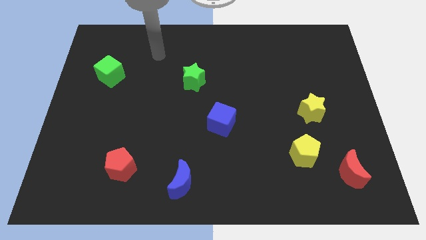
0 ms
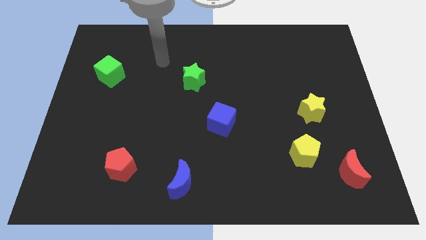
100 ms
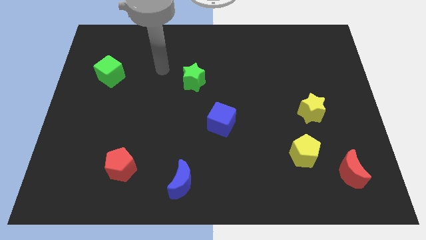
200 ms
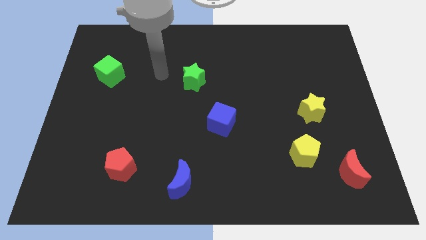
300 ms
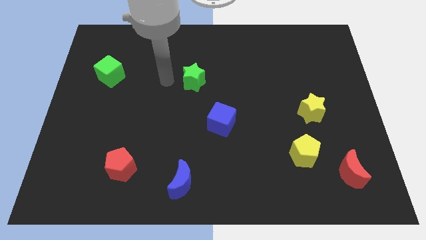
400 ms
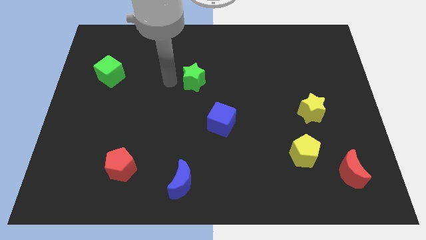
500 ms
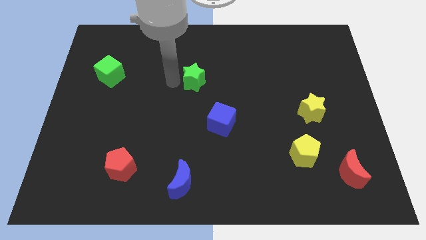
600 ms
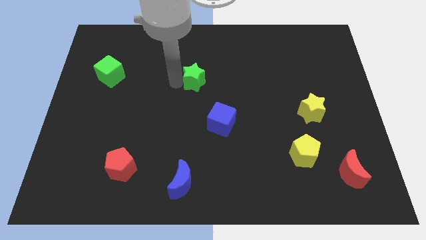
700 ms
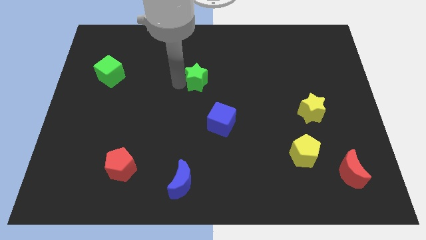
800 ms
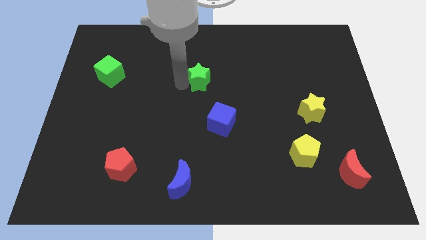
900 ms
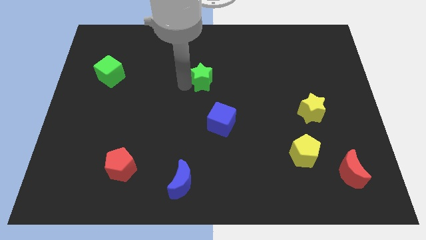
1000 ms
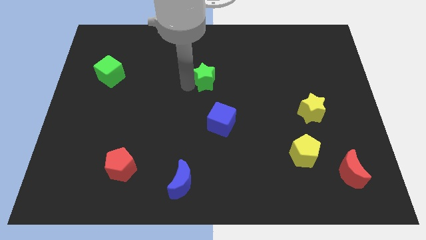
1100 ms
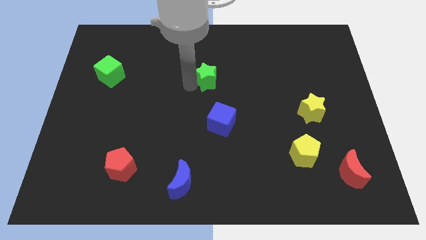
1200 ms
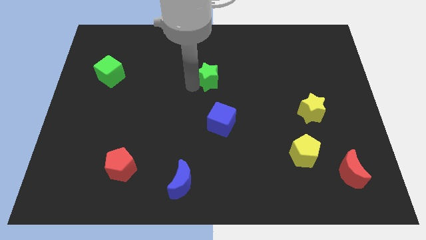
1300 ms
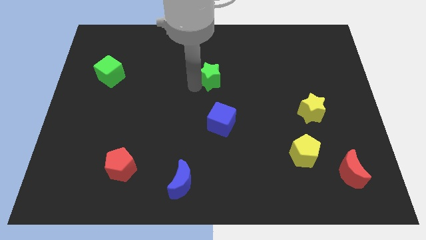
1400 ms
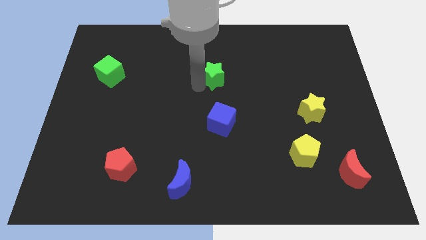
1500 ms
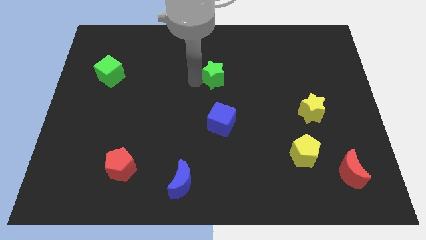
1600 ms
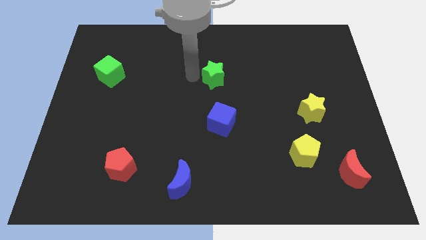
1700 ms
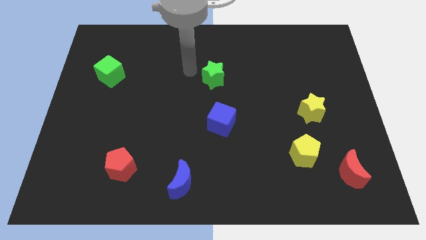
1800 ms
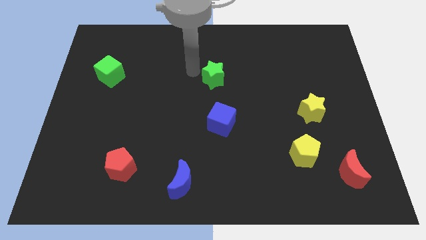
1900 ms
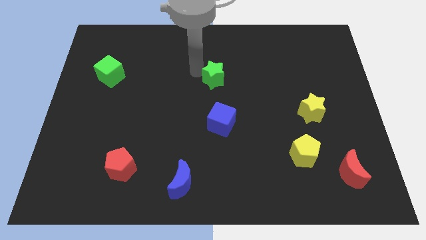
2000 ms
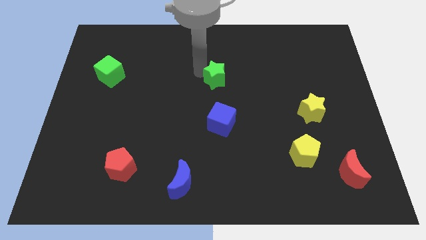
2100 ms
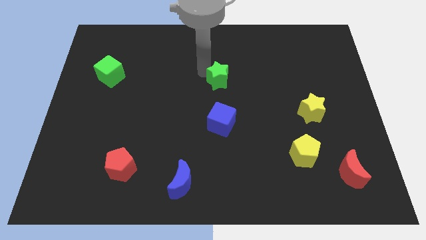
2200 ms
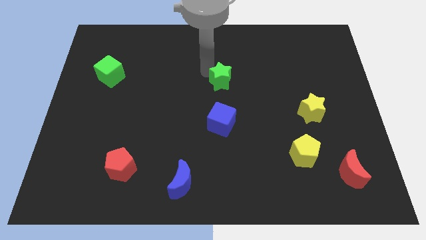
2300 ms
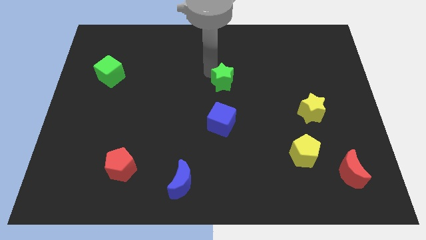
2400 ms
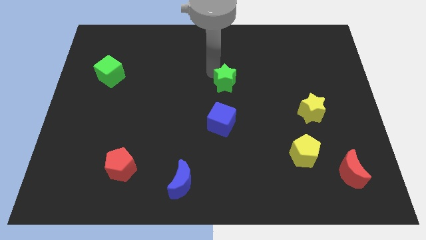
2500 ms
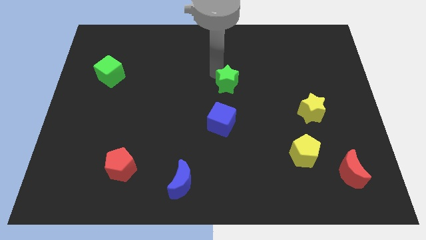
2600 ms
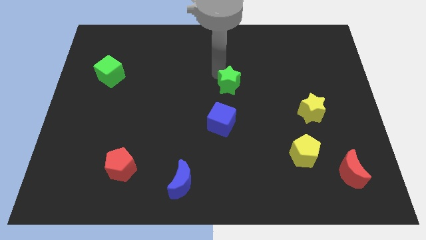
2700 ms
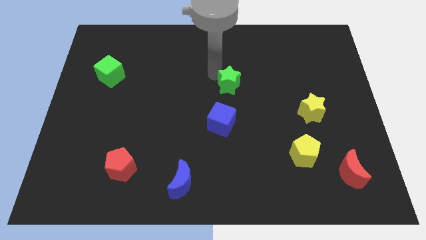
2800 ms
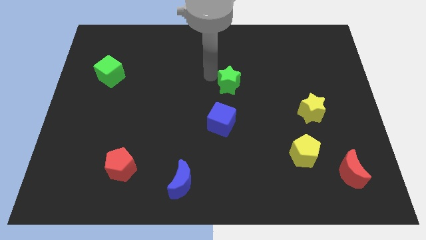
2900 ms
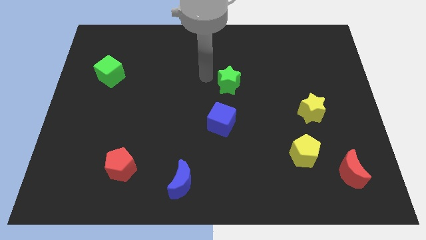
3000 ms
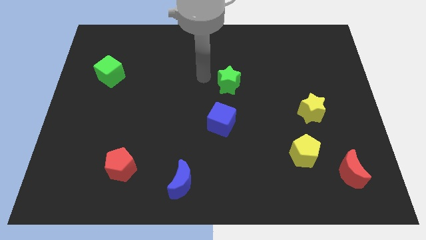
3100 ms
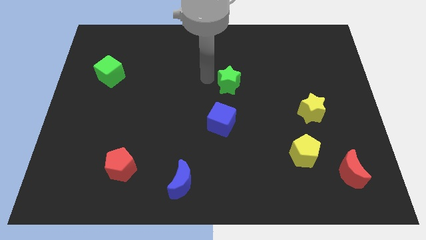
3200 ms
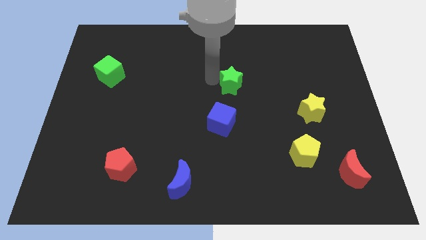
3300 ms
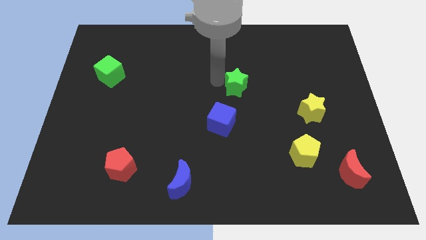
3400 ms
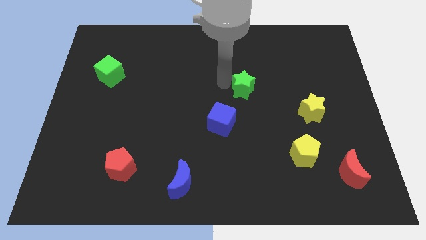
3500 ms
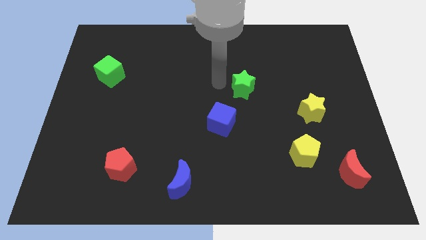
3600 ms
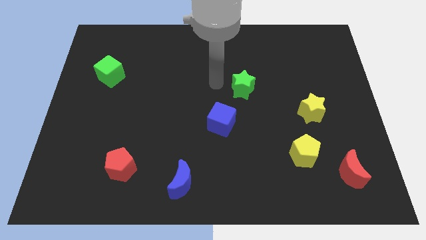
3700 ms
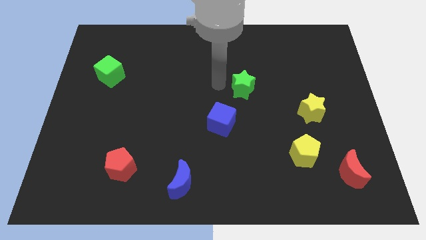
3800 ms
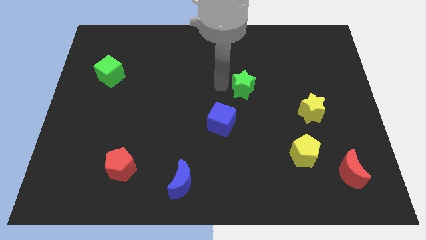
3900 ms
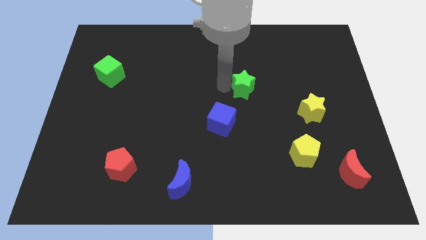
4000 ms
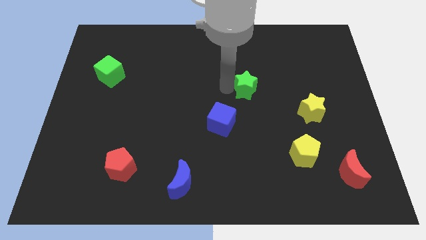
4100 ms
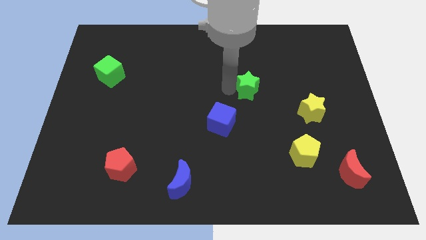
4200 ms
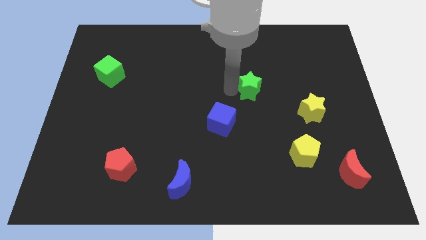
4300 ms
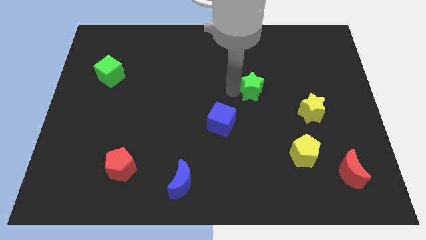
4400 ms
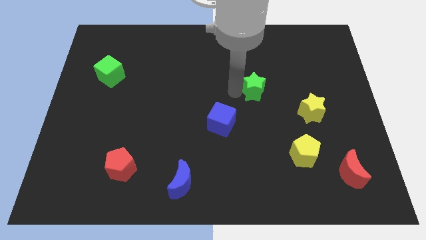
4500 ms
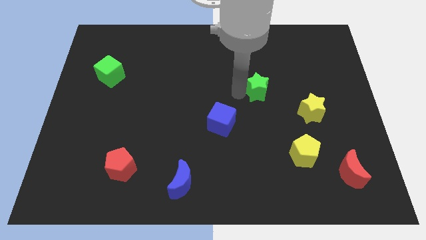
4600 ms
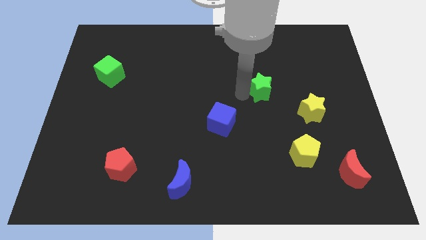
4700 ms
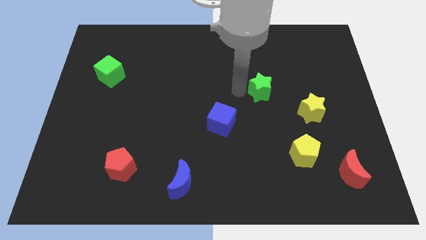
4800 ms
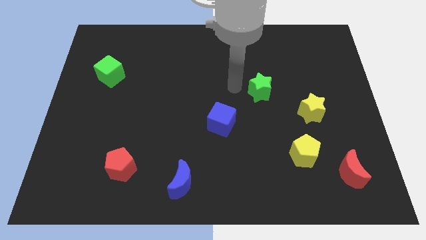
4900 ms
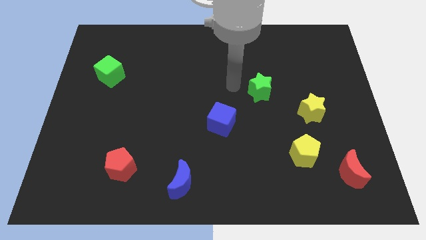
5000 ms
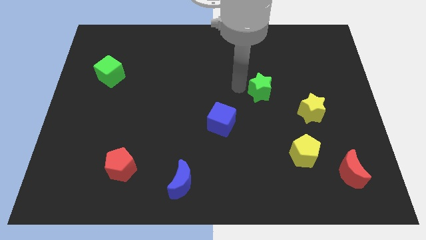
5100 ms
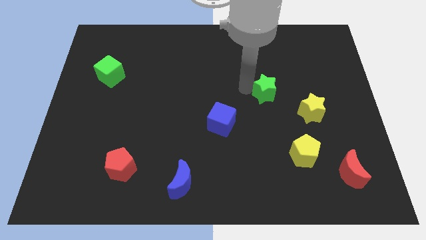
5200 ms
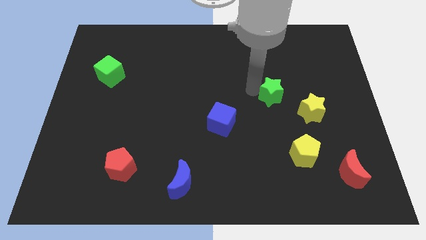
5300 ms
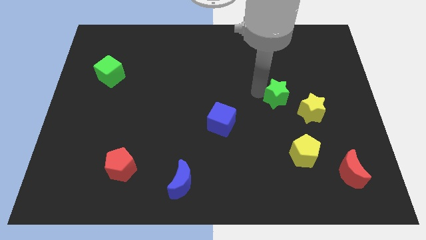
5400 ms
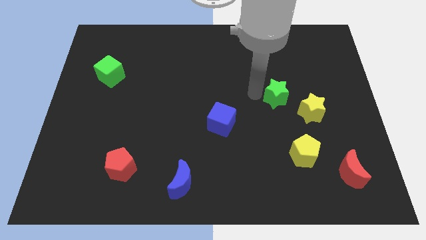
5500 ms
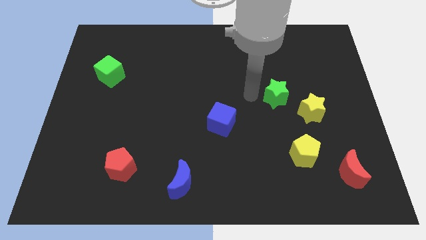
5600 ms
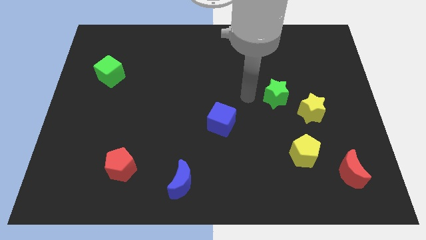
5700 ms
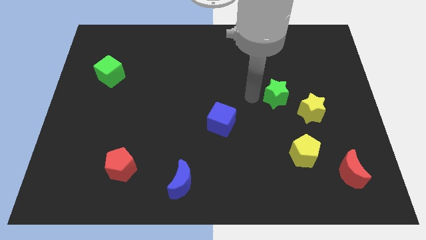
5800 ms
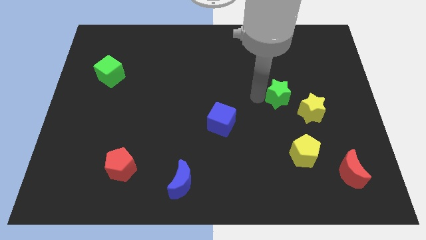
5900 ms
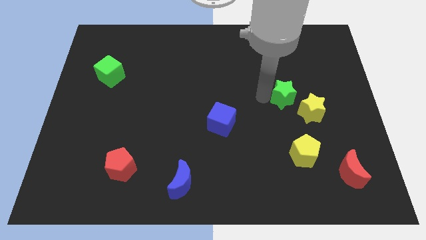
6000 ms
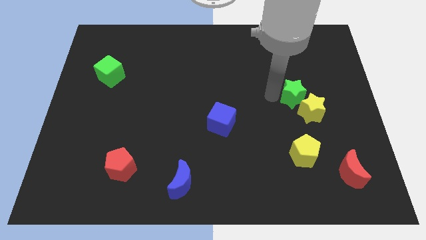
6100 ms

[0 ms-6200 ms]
slide the green star next to the yellow star

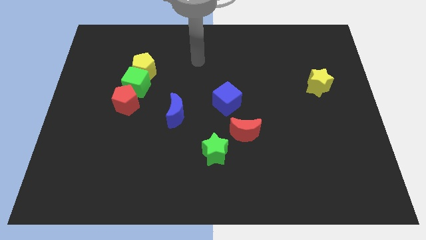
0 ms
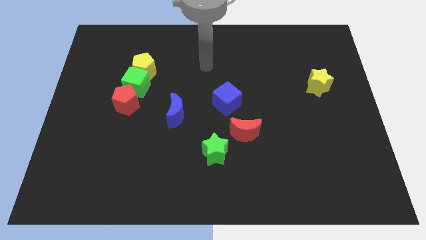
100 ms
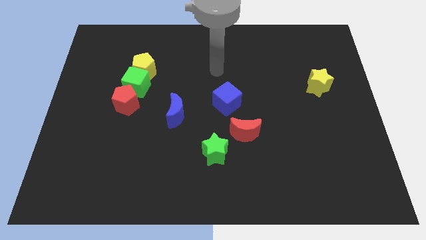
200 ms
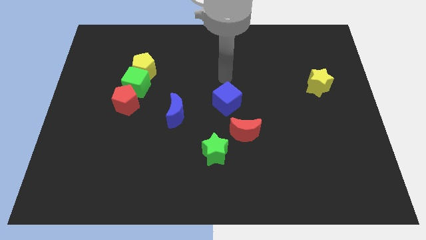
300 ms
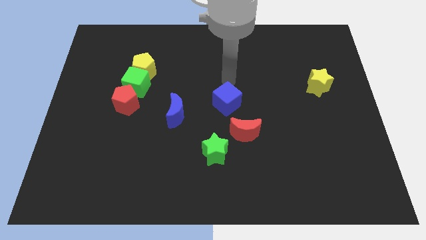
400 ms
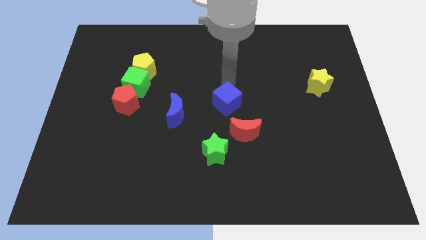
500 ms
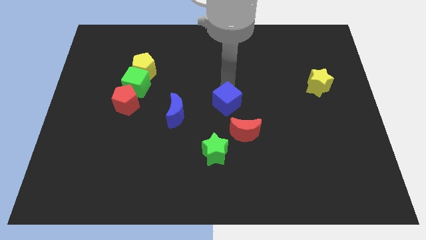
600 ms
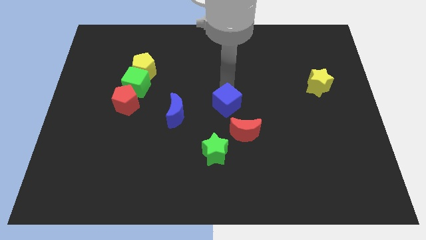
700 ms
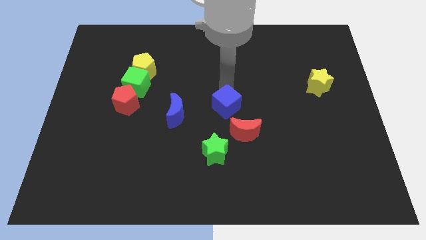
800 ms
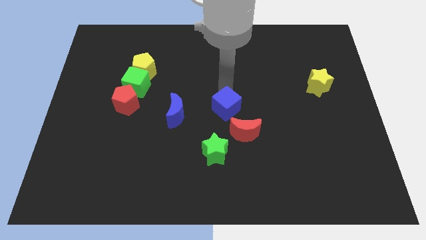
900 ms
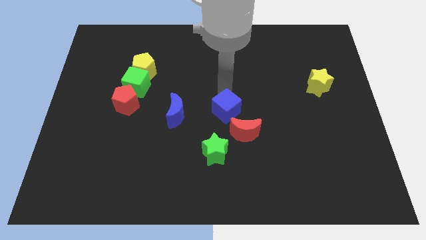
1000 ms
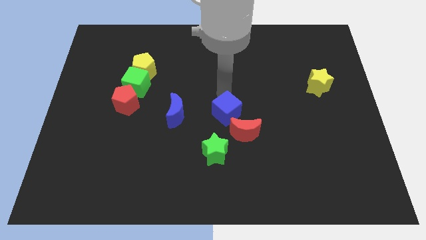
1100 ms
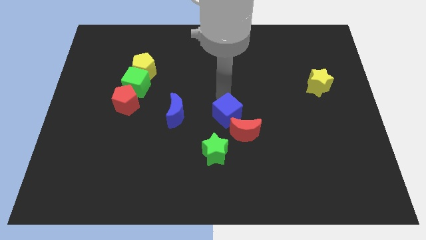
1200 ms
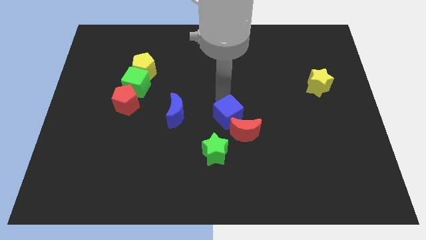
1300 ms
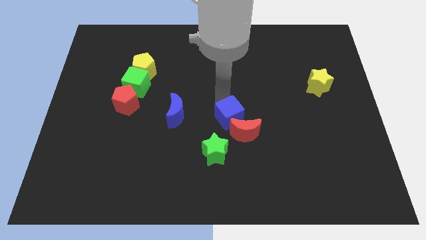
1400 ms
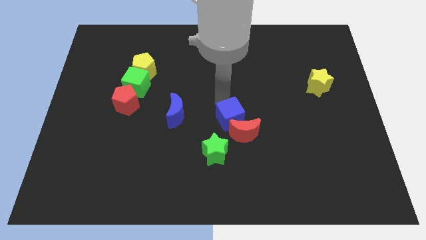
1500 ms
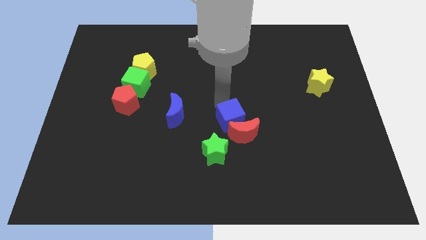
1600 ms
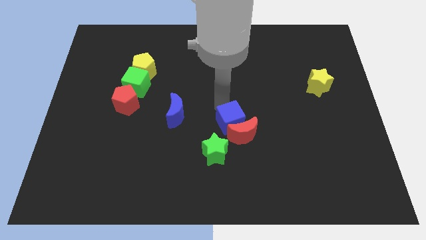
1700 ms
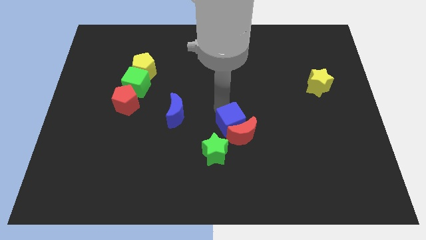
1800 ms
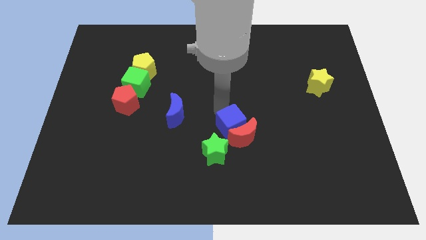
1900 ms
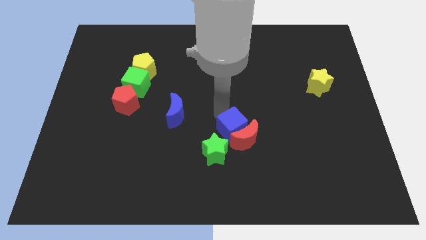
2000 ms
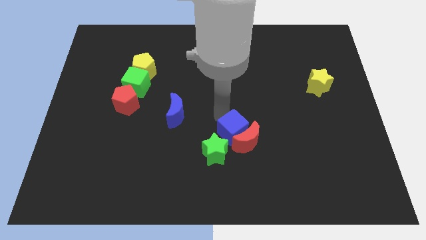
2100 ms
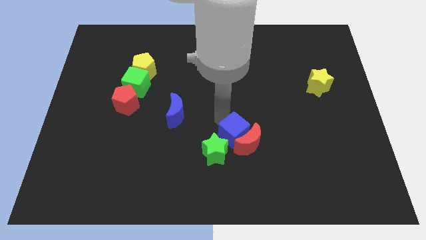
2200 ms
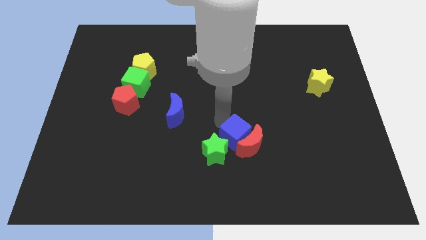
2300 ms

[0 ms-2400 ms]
push the blue cube towards the green star
